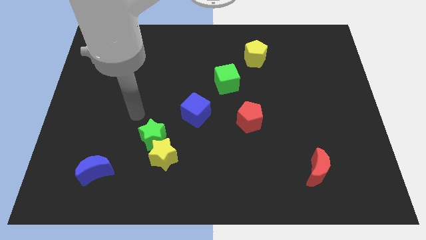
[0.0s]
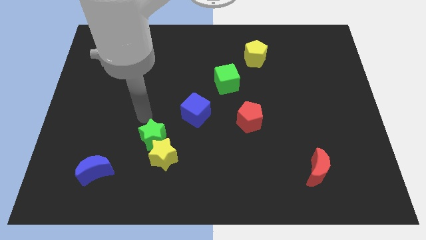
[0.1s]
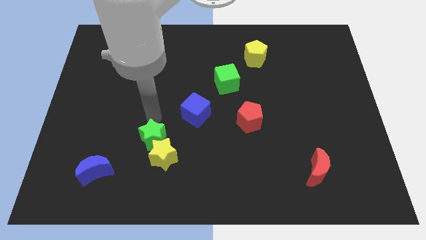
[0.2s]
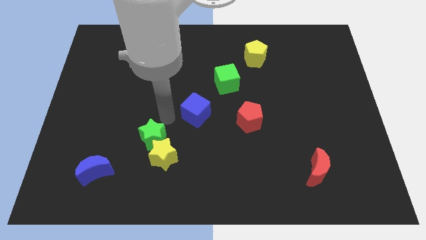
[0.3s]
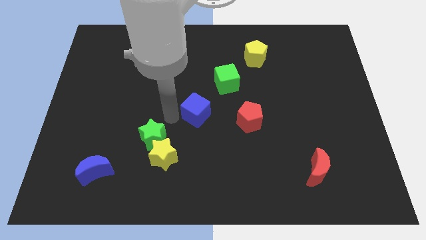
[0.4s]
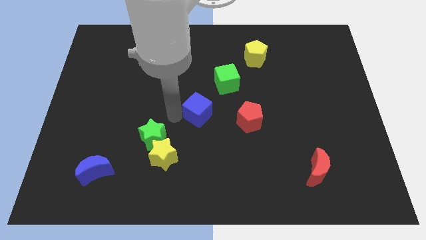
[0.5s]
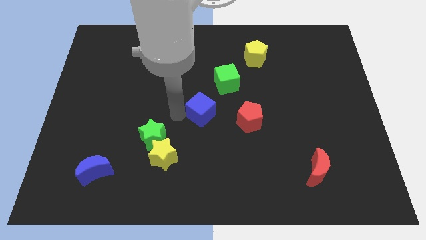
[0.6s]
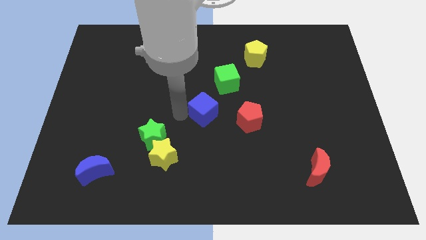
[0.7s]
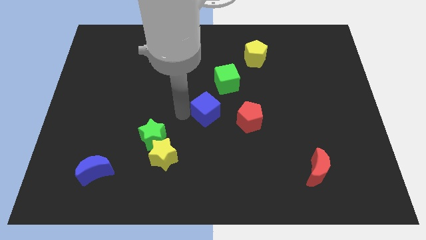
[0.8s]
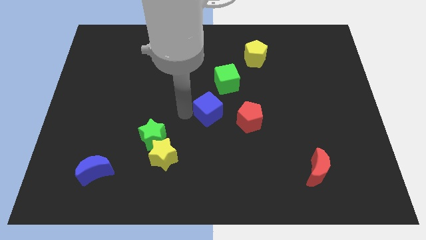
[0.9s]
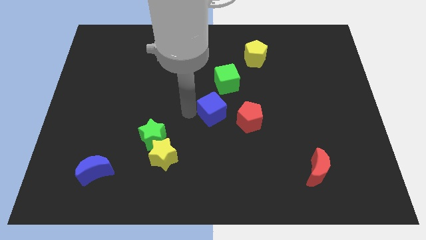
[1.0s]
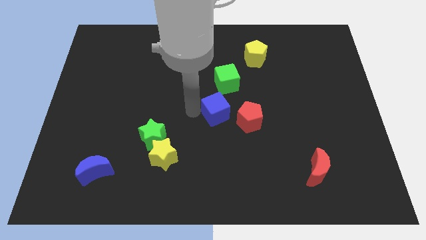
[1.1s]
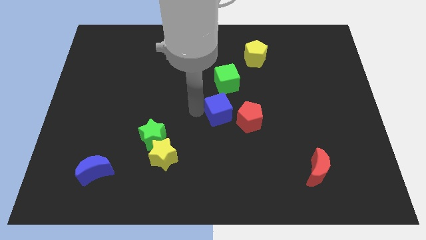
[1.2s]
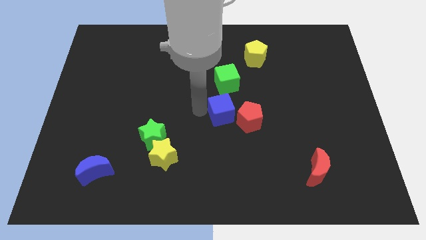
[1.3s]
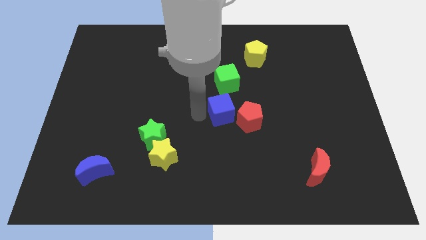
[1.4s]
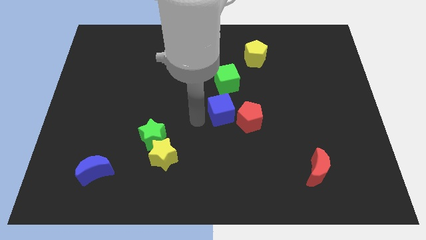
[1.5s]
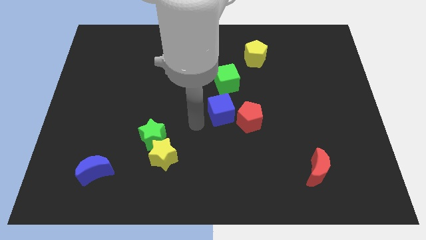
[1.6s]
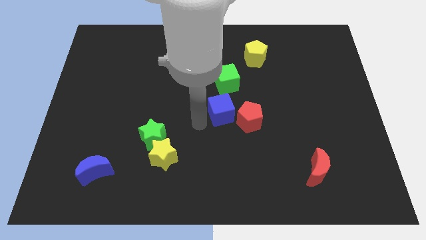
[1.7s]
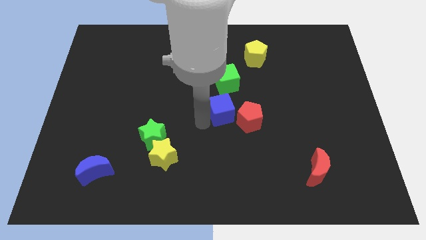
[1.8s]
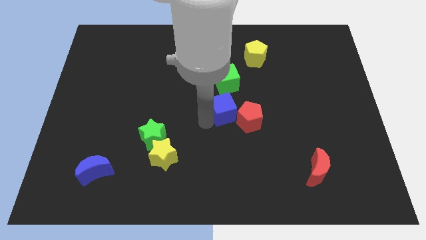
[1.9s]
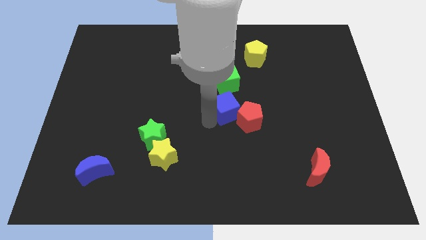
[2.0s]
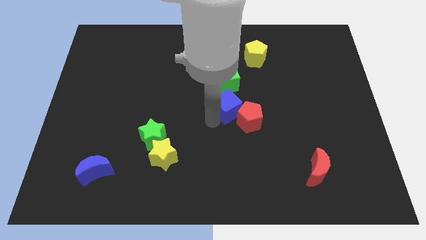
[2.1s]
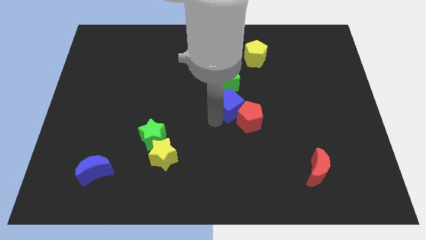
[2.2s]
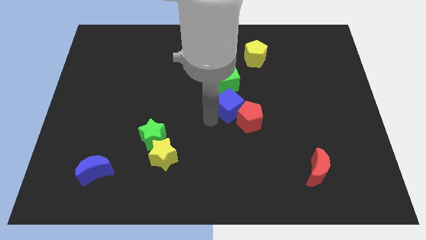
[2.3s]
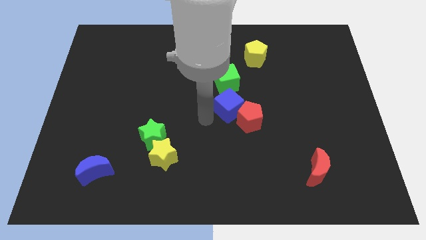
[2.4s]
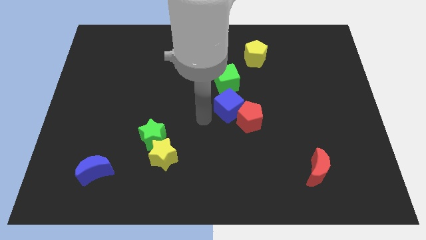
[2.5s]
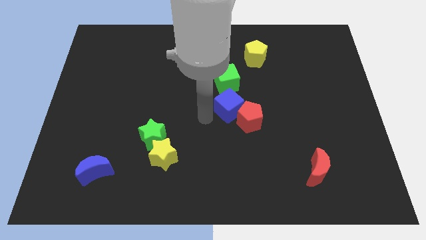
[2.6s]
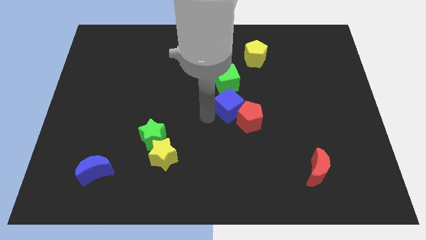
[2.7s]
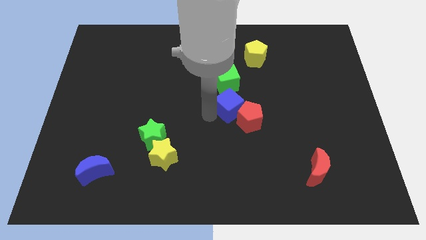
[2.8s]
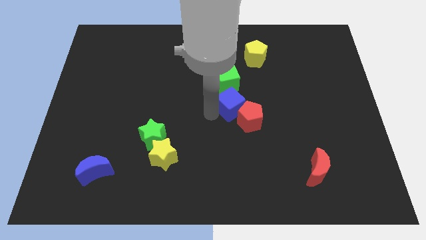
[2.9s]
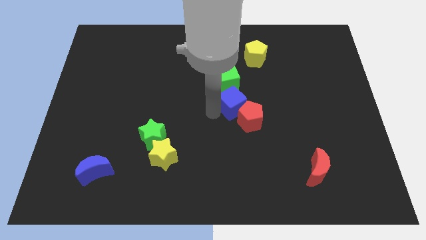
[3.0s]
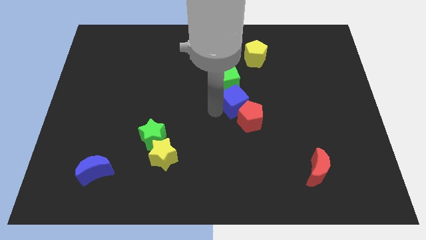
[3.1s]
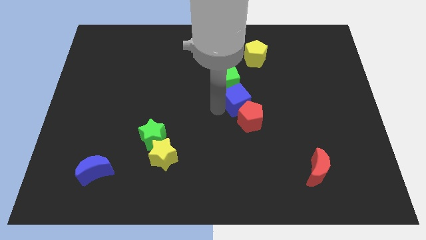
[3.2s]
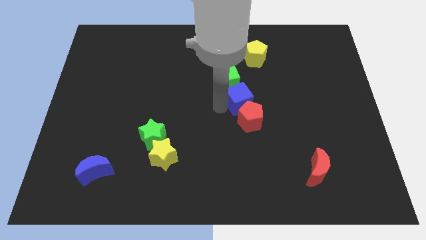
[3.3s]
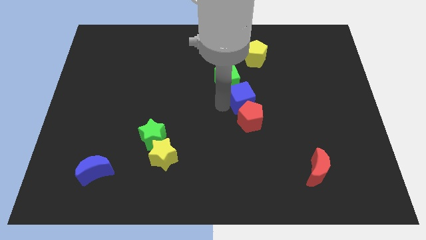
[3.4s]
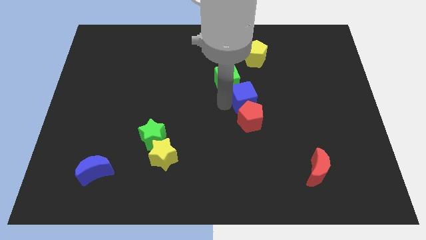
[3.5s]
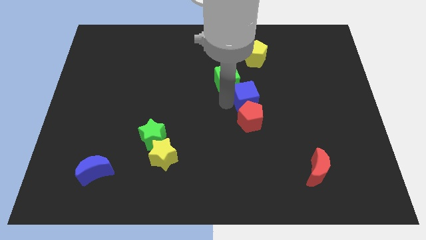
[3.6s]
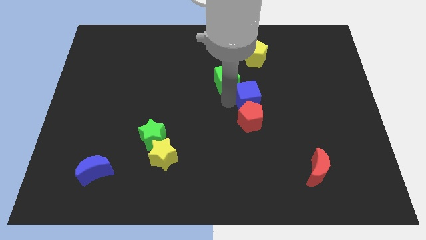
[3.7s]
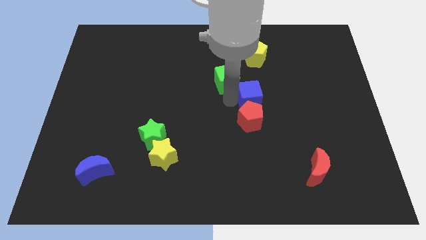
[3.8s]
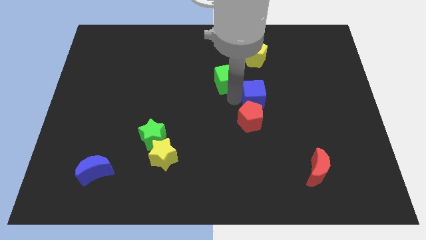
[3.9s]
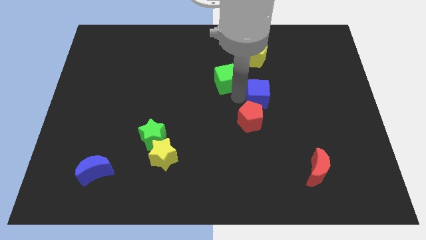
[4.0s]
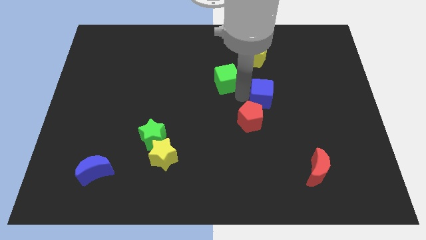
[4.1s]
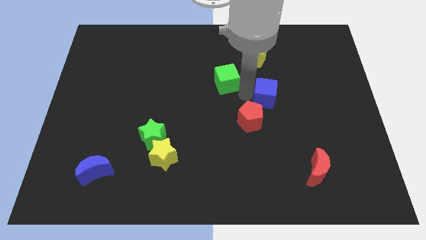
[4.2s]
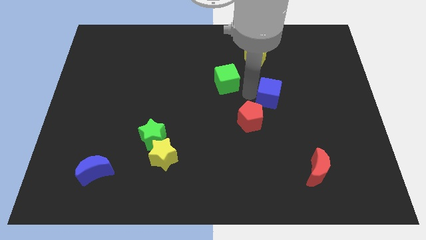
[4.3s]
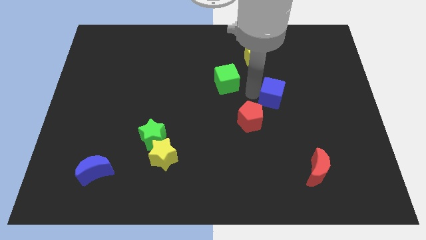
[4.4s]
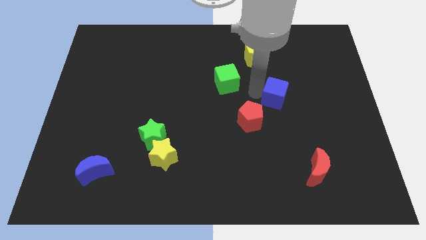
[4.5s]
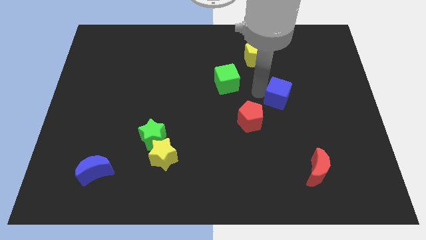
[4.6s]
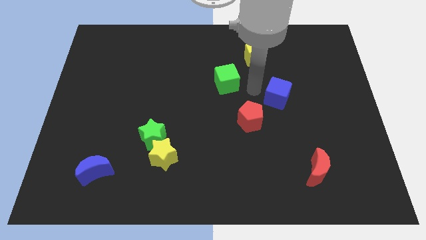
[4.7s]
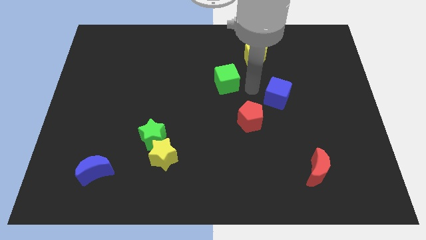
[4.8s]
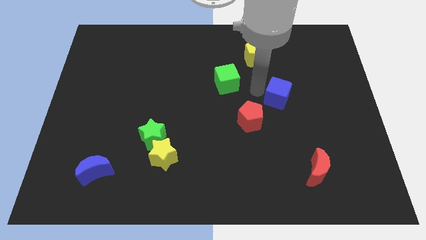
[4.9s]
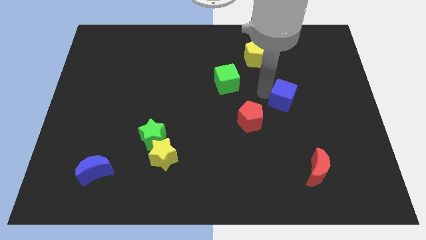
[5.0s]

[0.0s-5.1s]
push the blue cube right

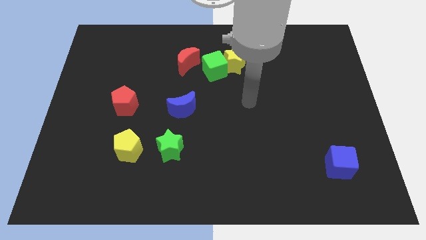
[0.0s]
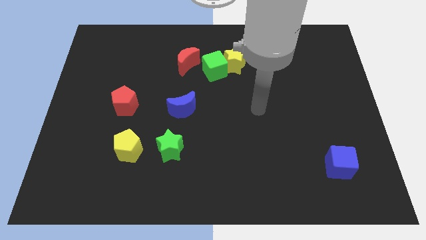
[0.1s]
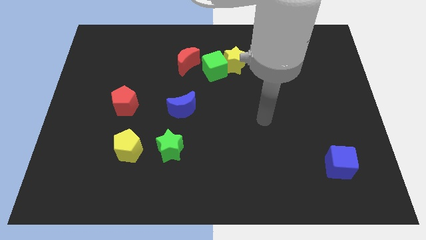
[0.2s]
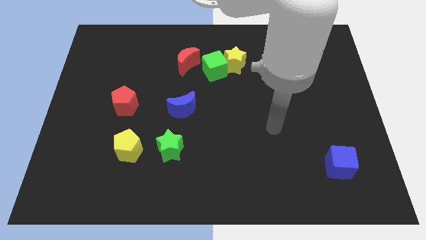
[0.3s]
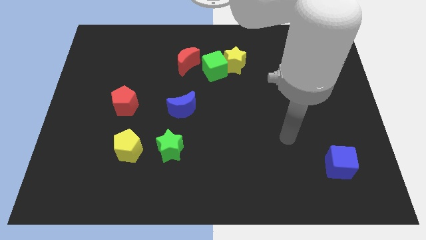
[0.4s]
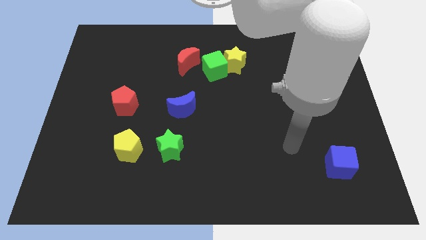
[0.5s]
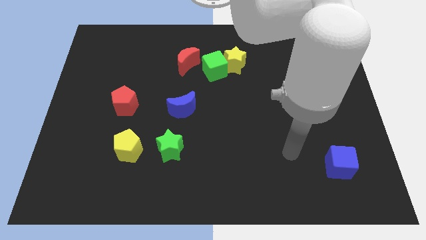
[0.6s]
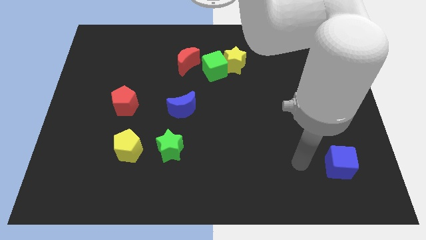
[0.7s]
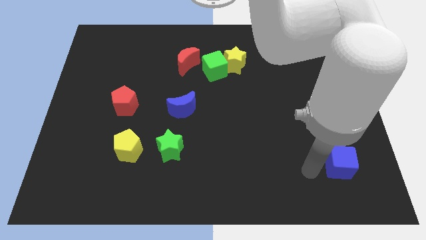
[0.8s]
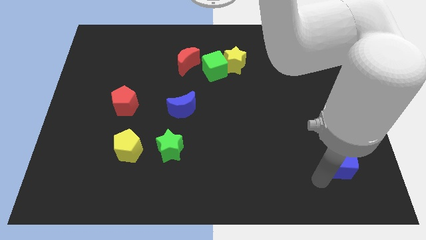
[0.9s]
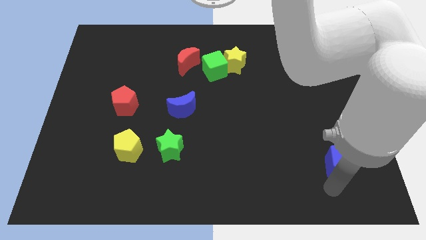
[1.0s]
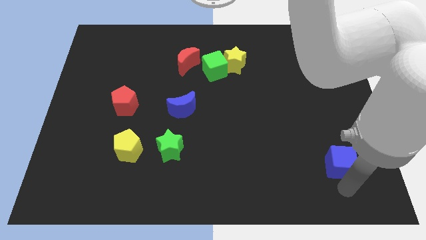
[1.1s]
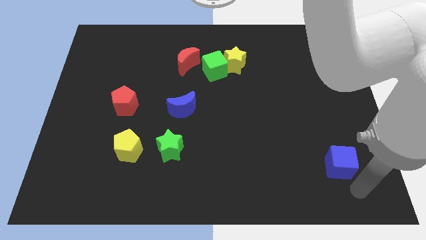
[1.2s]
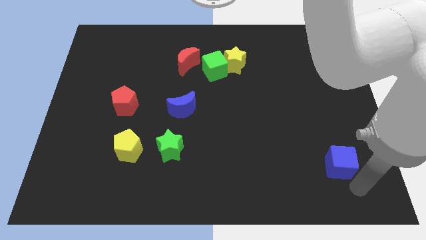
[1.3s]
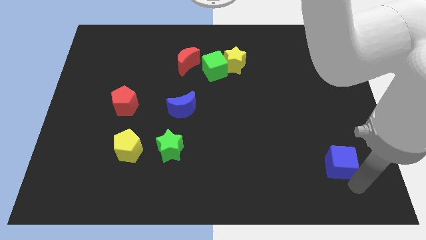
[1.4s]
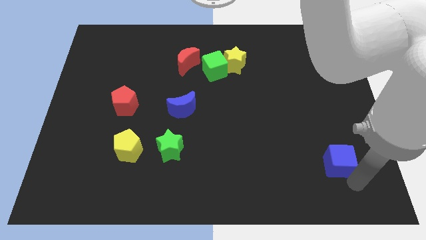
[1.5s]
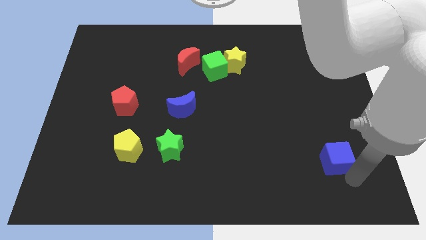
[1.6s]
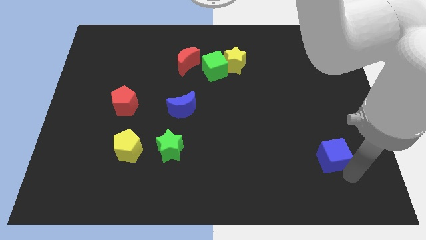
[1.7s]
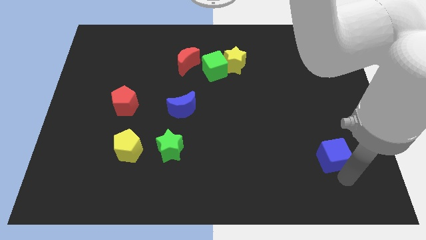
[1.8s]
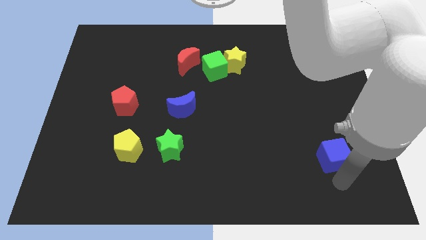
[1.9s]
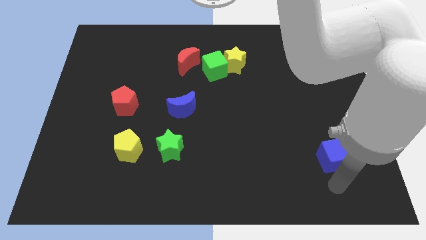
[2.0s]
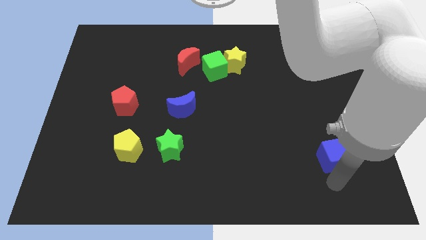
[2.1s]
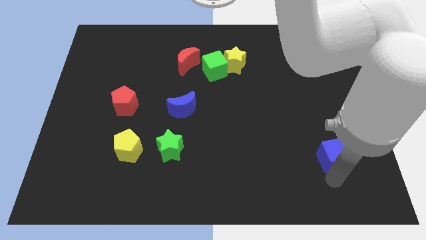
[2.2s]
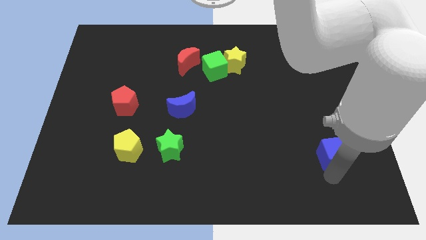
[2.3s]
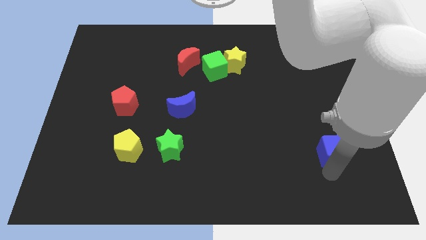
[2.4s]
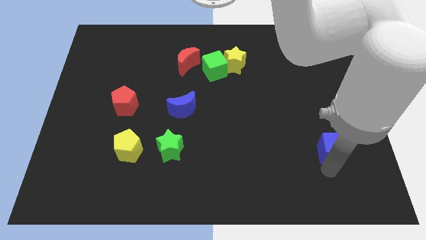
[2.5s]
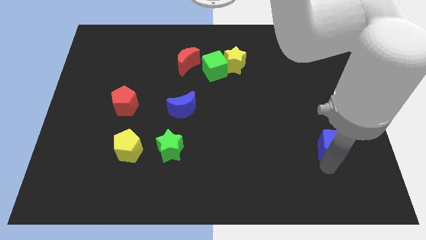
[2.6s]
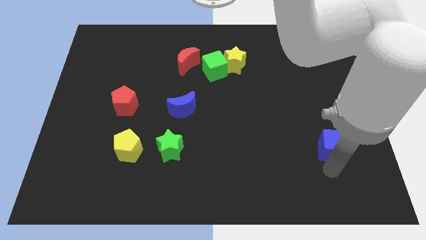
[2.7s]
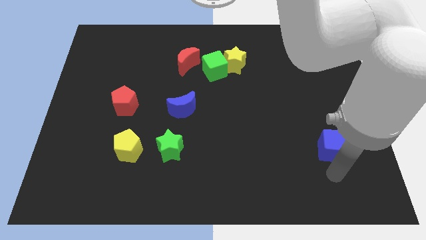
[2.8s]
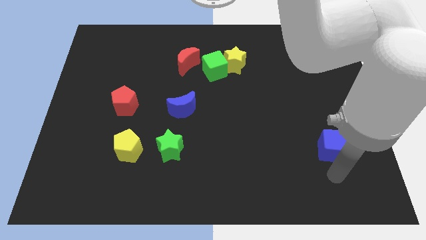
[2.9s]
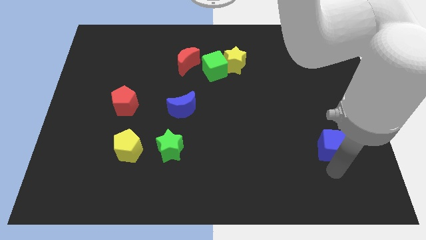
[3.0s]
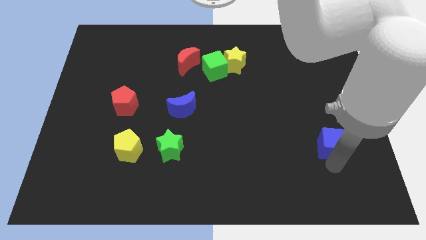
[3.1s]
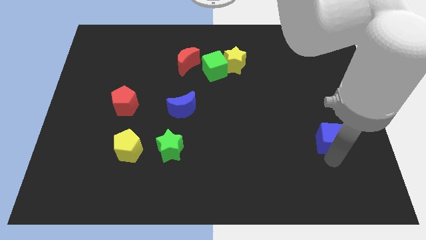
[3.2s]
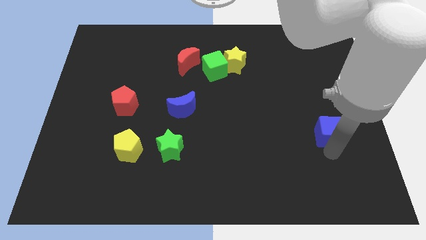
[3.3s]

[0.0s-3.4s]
slide the blue cube upwards a little bit
